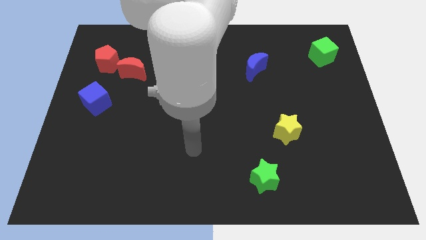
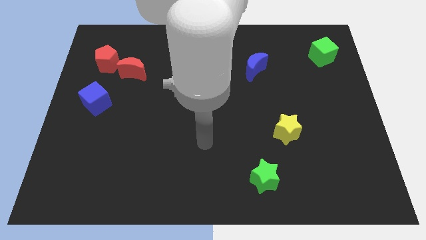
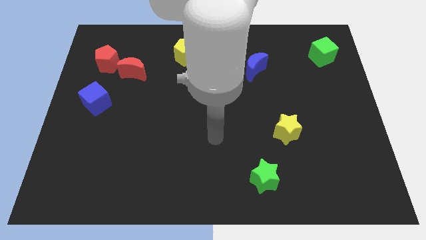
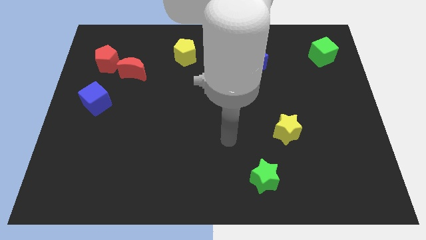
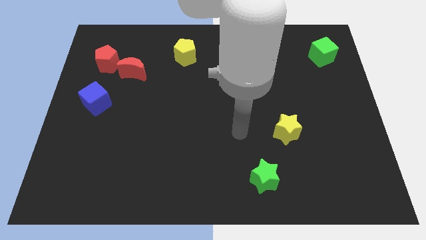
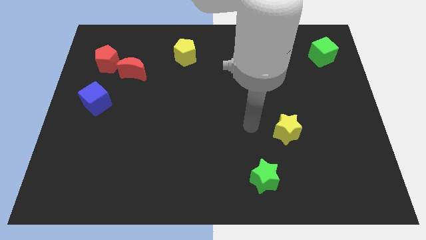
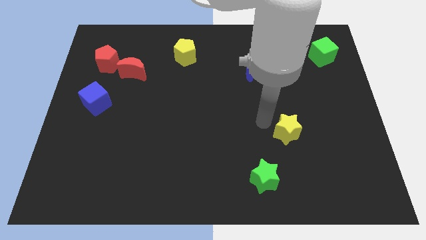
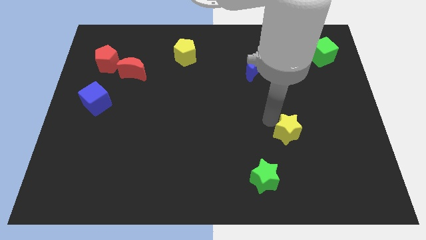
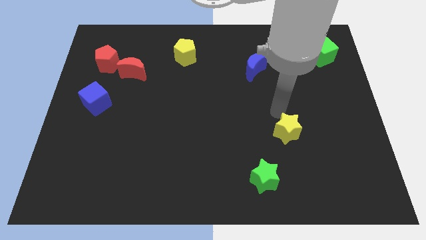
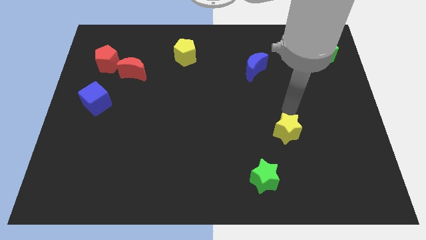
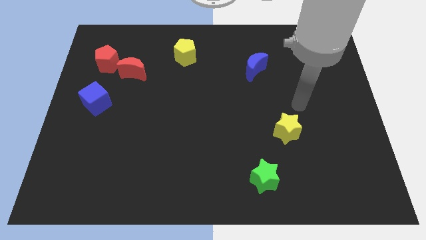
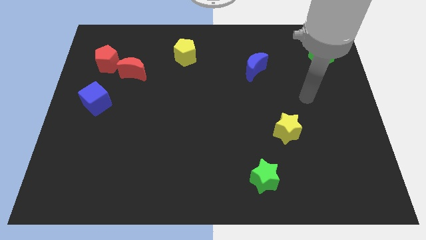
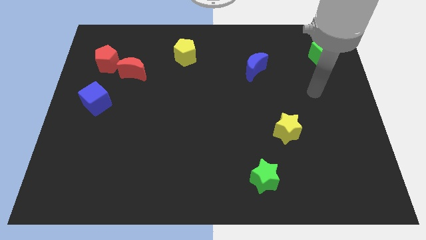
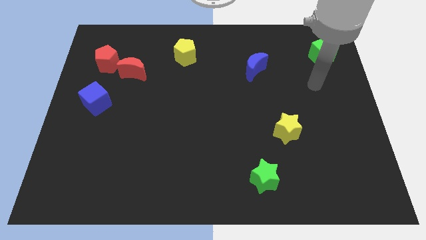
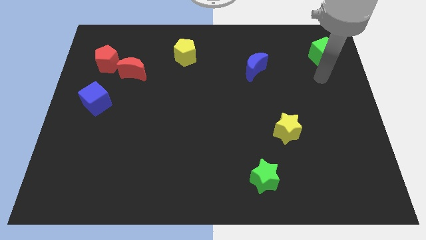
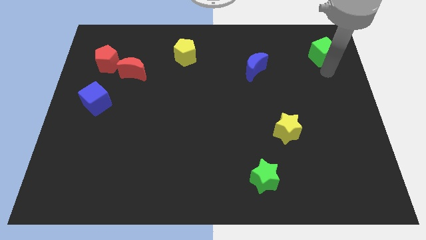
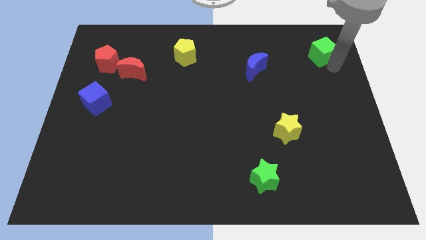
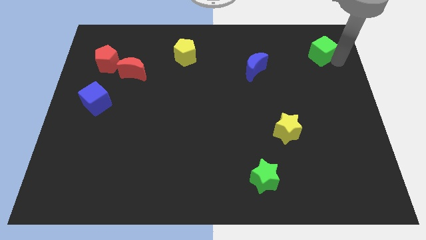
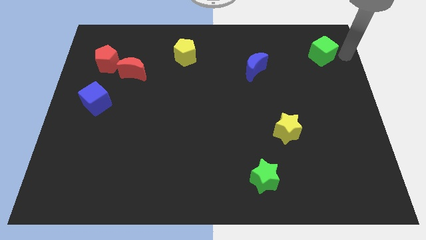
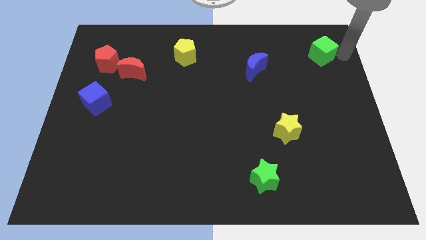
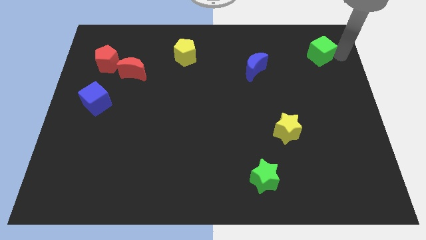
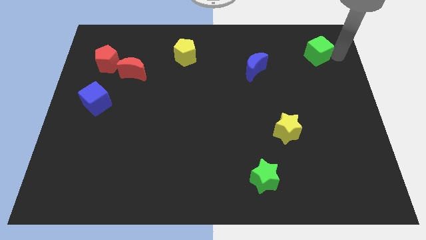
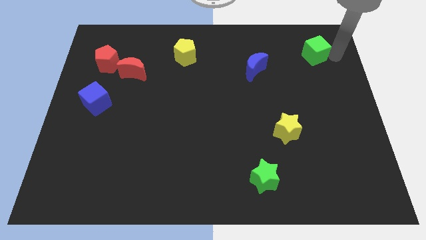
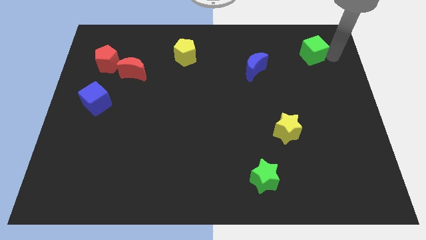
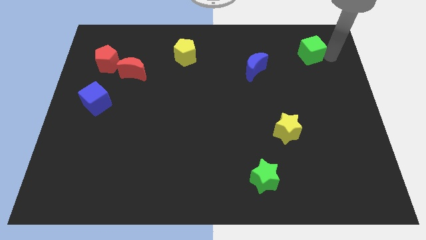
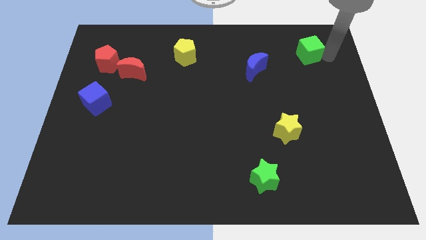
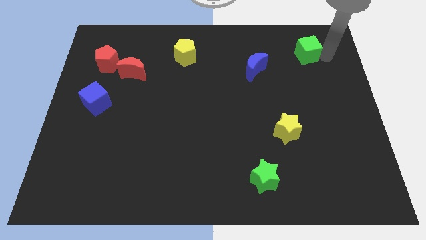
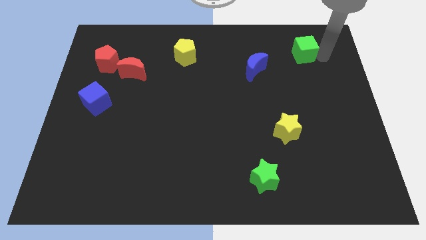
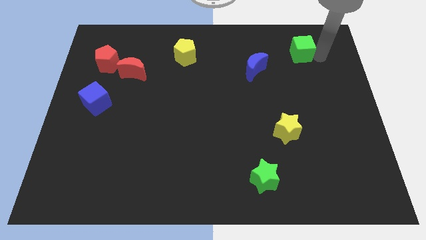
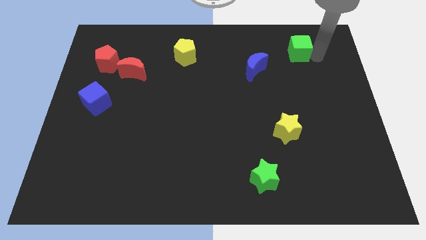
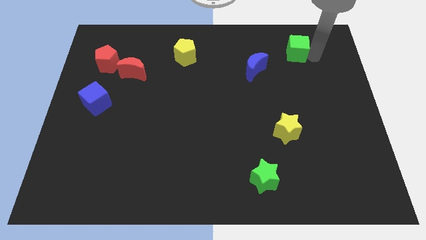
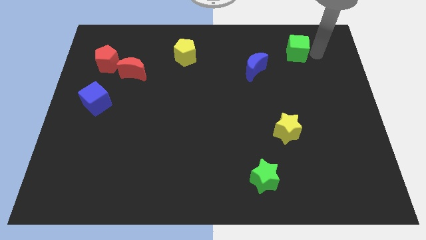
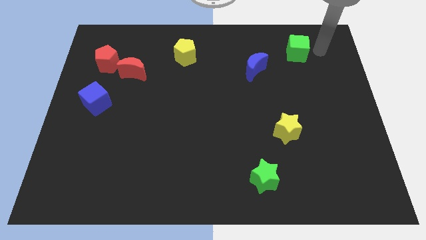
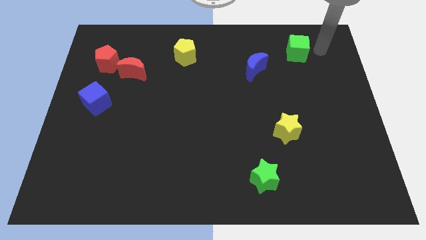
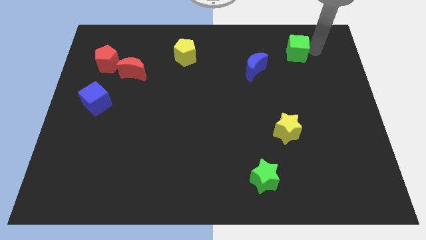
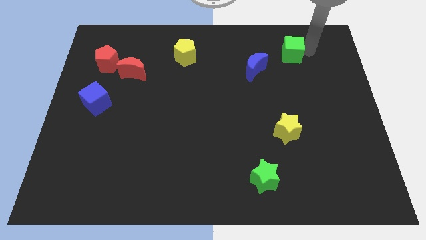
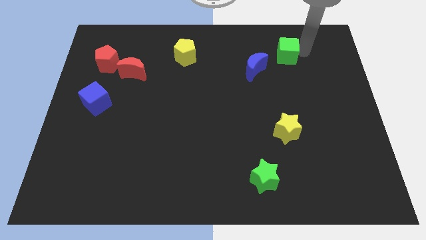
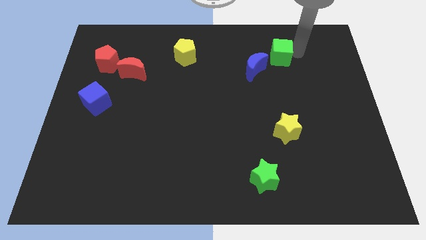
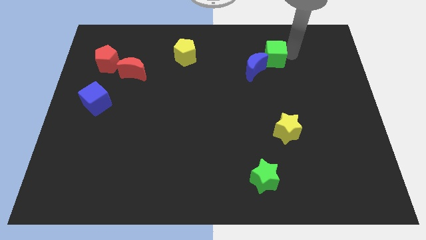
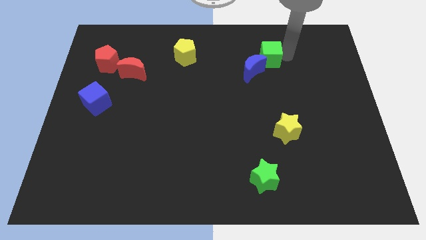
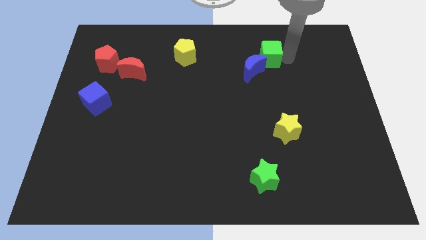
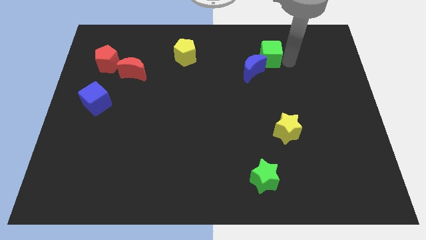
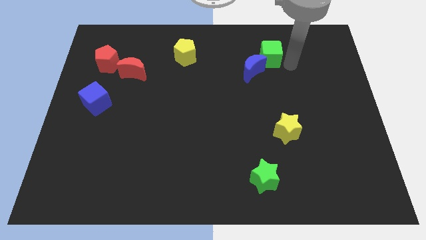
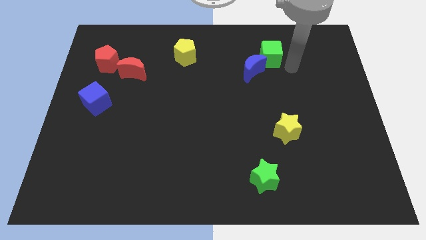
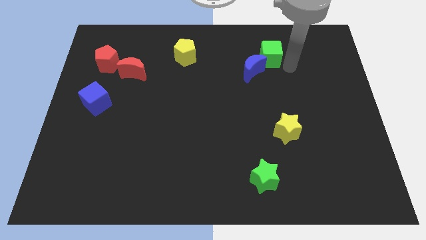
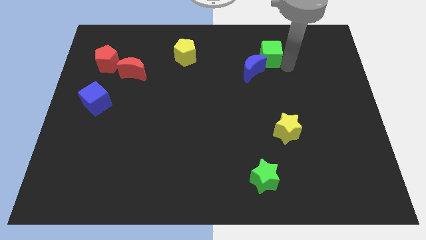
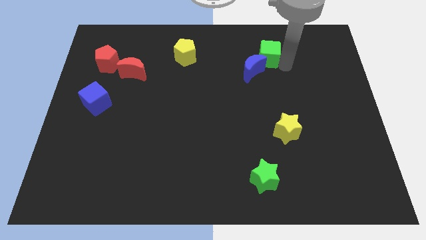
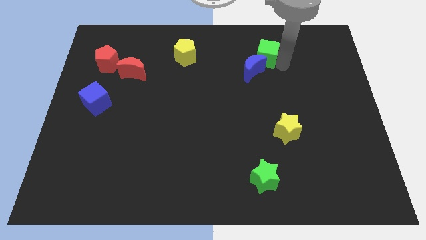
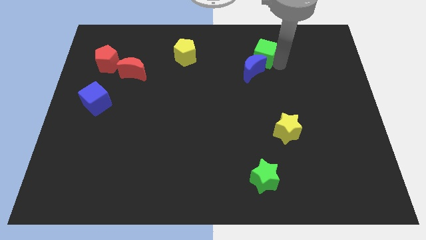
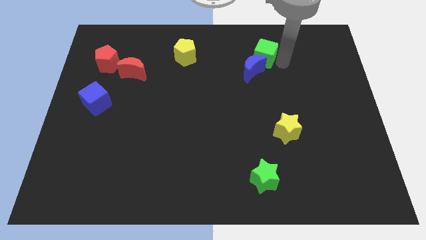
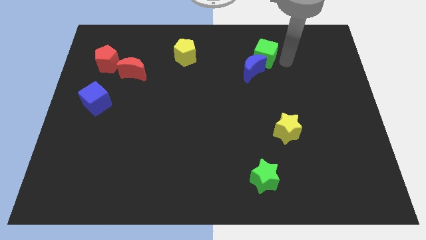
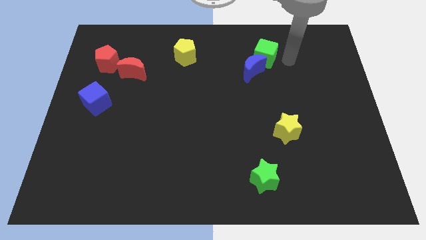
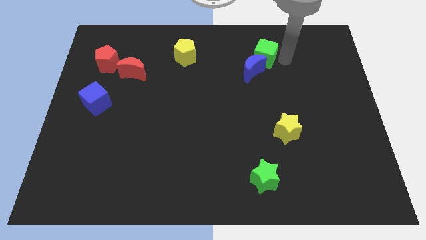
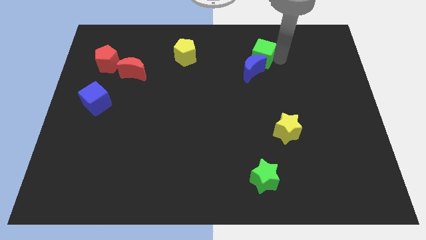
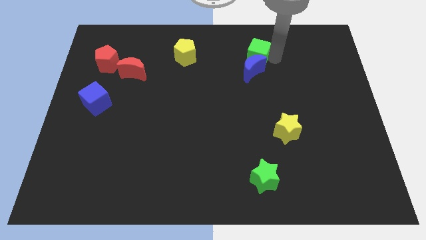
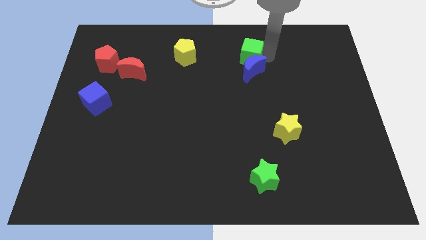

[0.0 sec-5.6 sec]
slide the green cube diagonally up and to the left of the blue moon

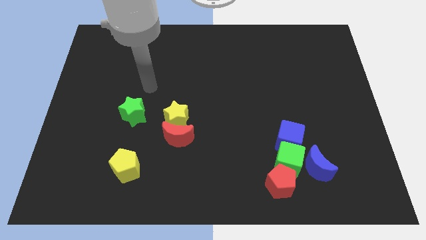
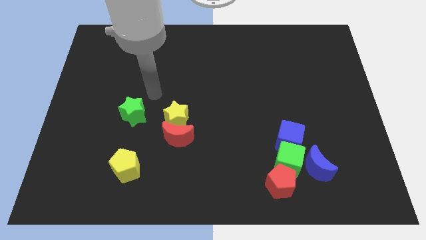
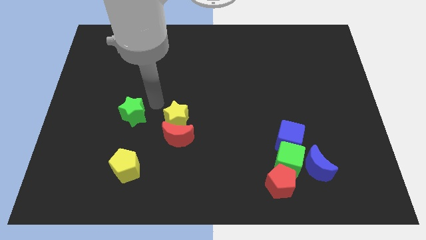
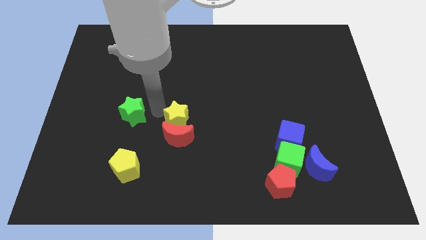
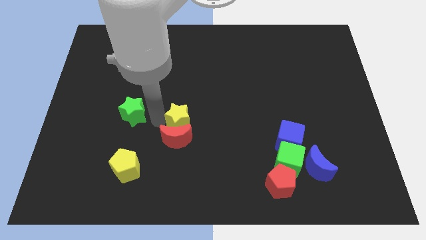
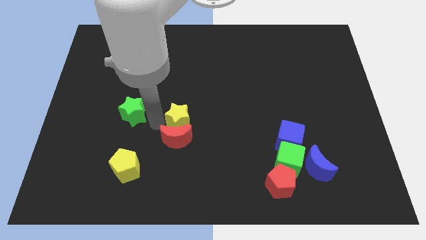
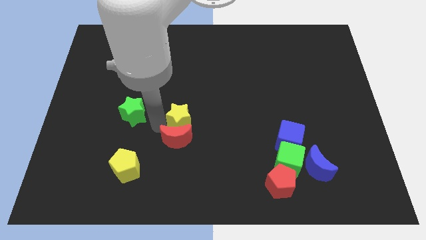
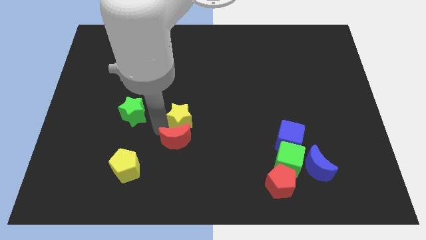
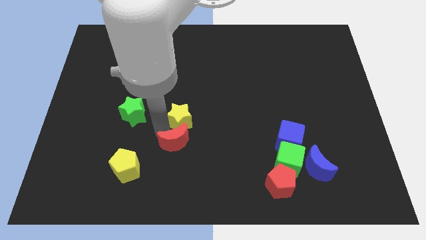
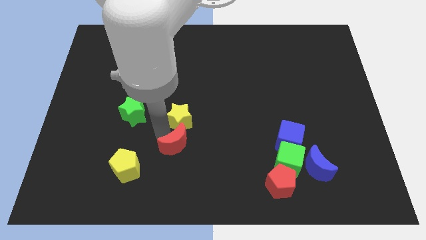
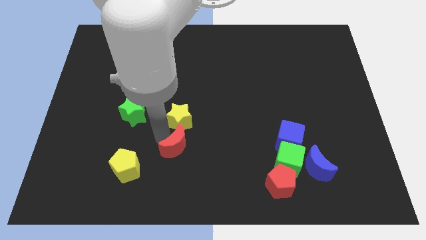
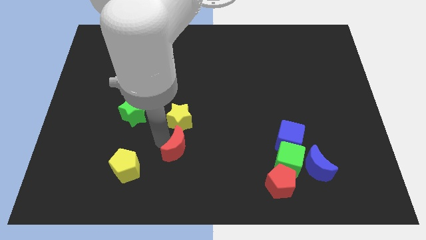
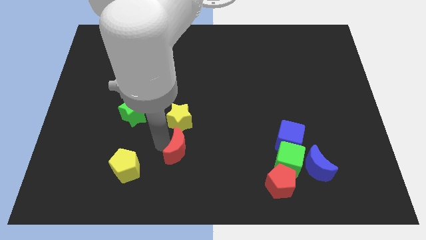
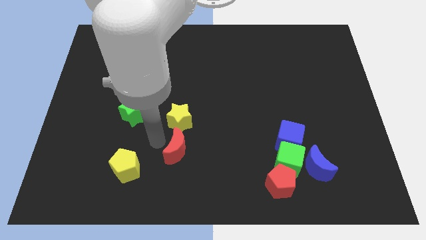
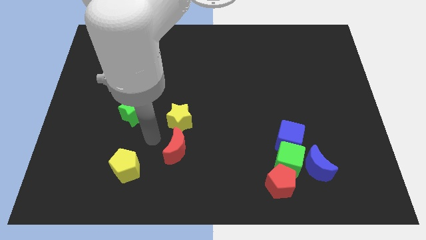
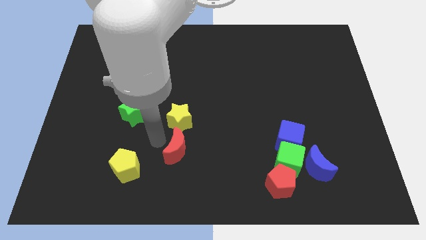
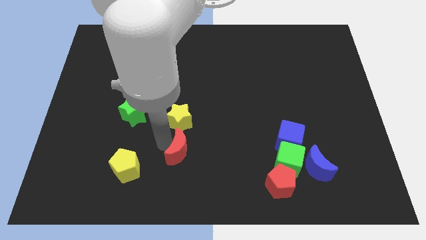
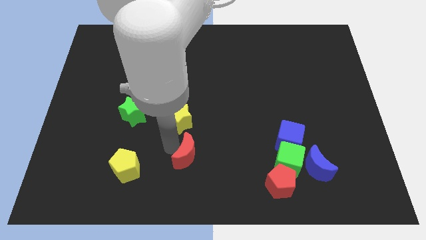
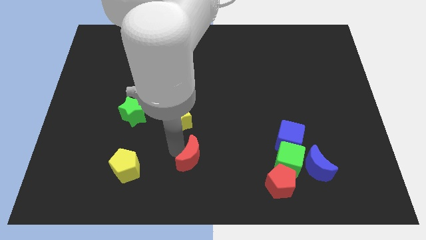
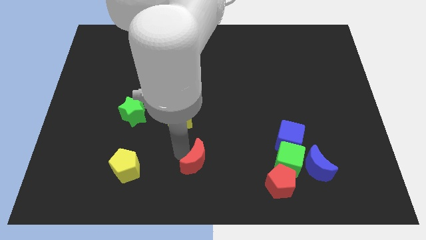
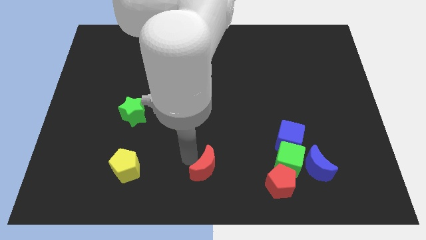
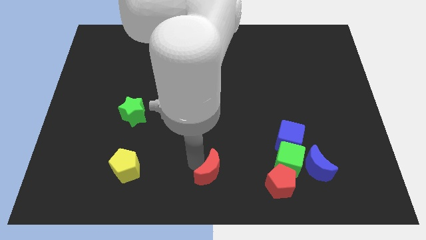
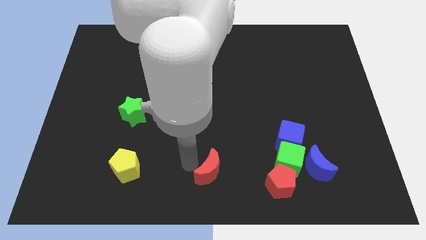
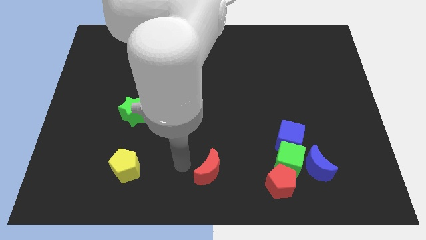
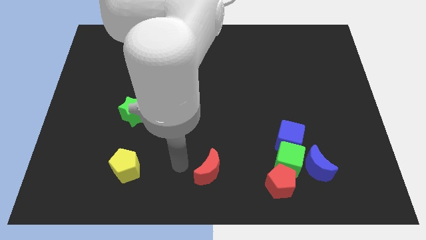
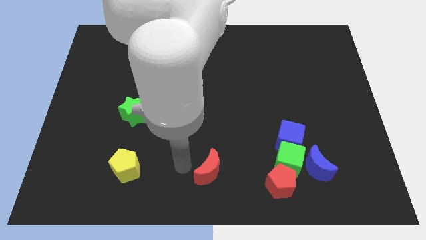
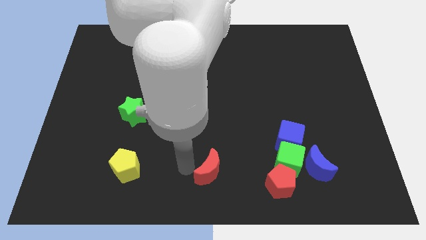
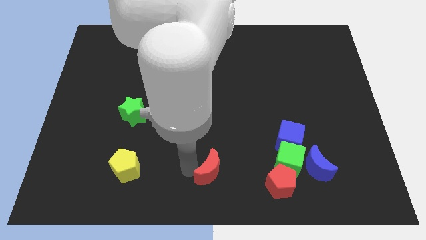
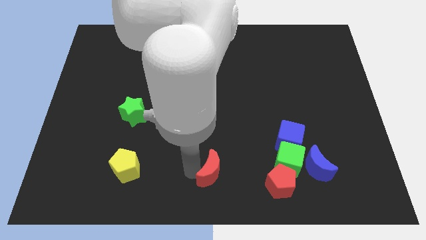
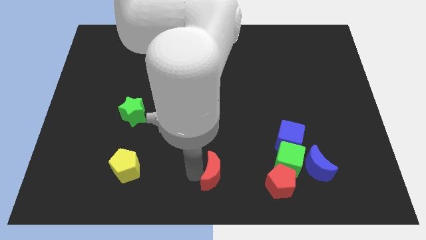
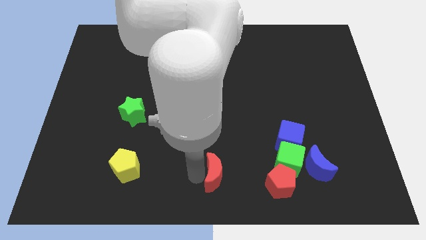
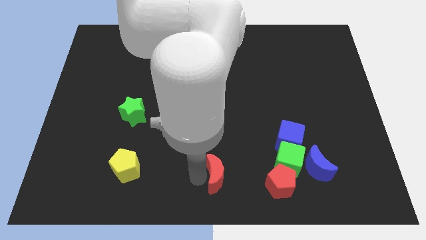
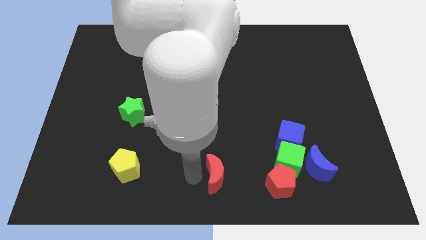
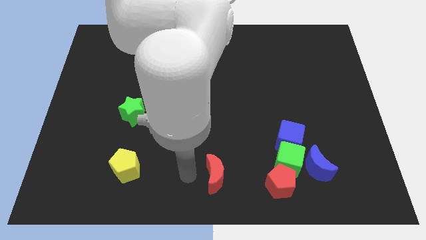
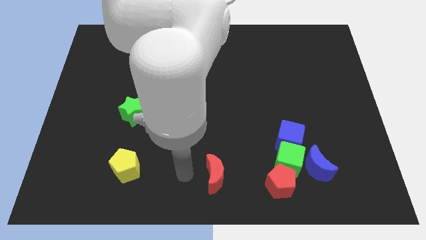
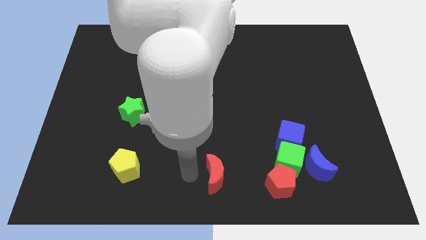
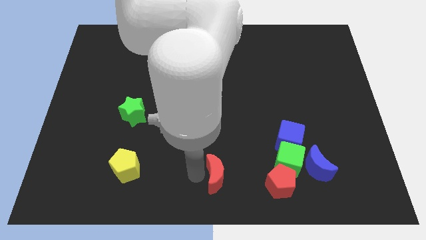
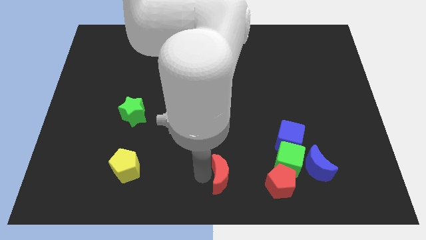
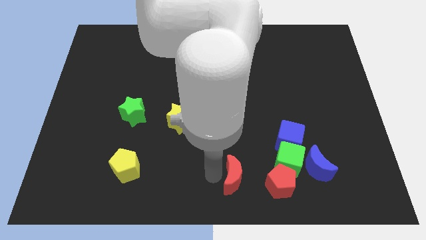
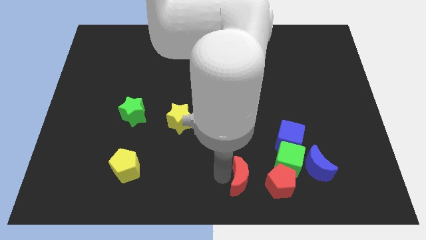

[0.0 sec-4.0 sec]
move the red moon to the bottom left of the green cube
